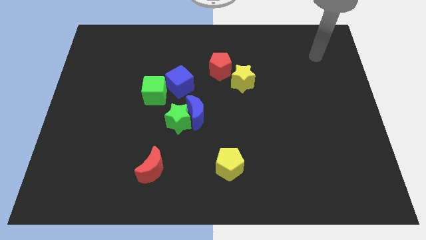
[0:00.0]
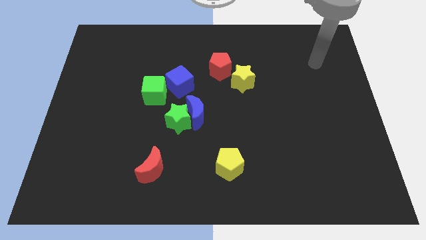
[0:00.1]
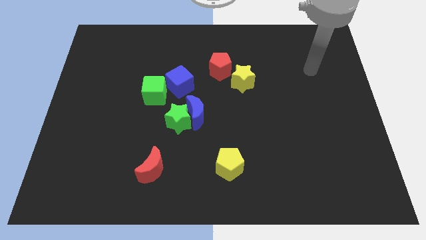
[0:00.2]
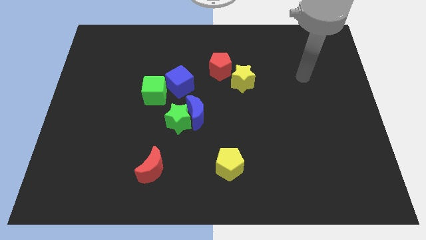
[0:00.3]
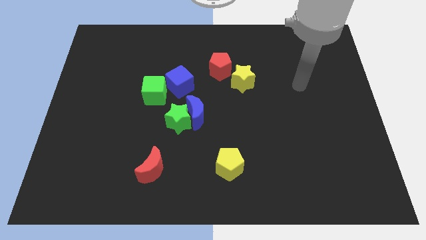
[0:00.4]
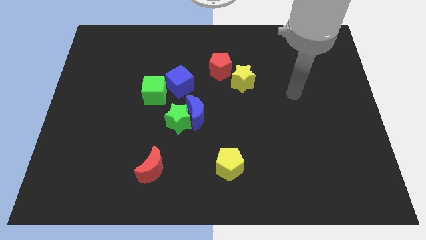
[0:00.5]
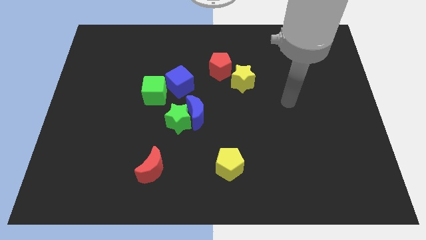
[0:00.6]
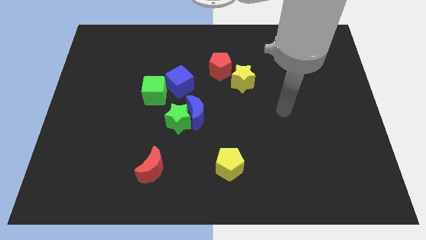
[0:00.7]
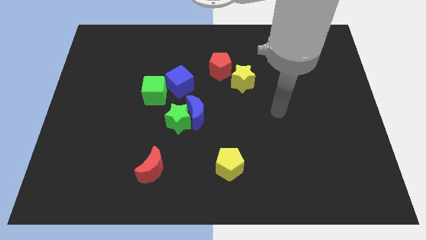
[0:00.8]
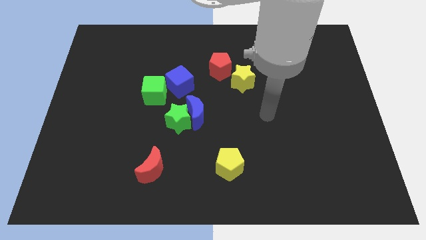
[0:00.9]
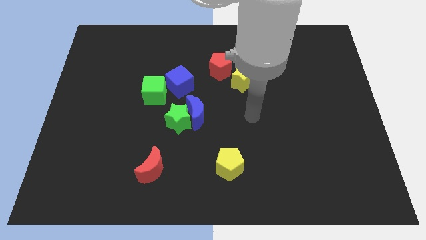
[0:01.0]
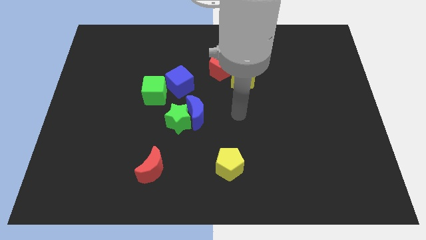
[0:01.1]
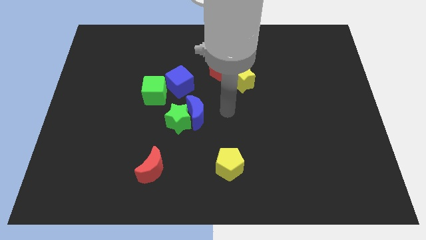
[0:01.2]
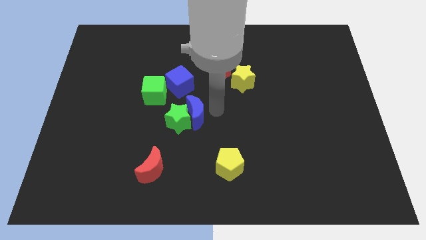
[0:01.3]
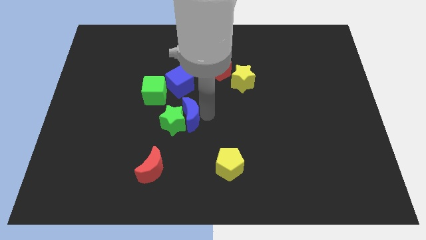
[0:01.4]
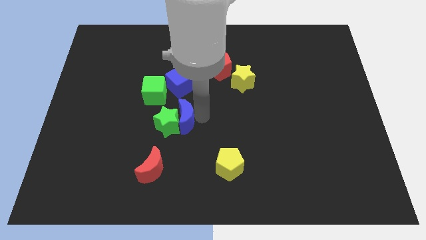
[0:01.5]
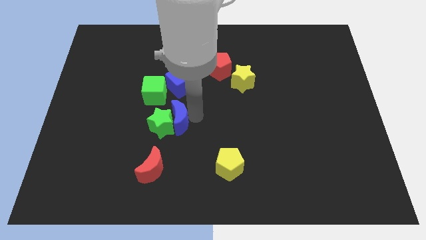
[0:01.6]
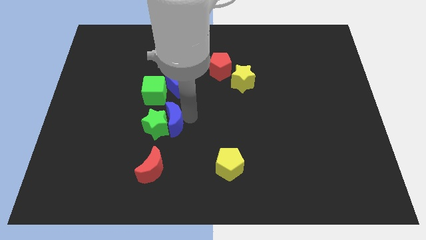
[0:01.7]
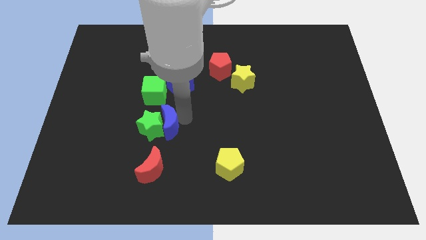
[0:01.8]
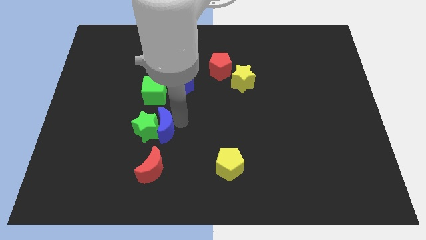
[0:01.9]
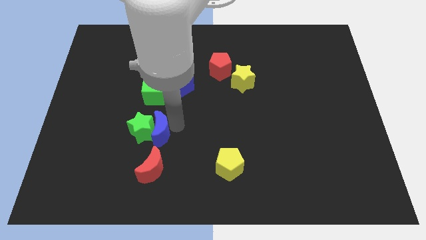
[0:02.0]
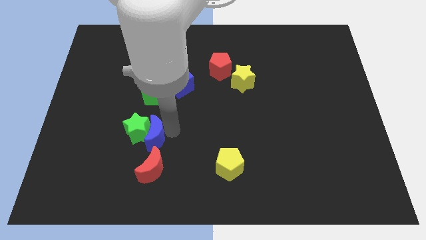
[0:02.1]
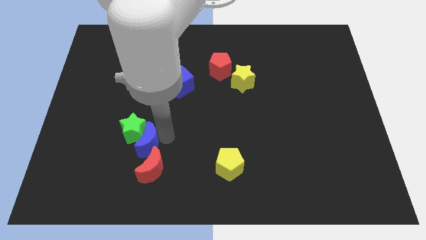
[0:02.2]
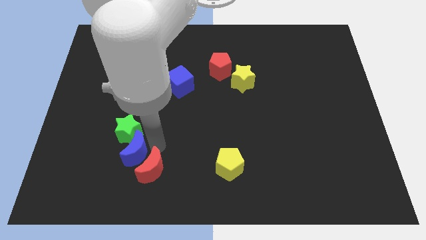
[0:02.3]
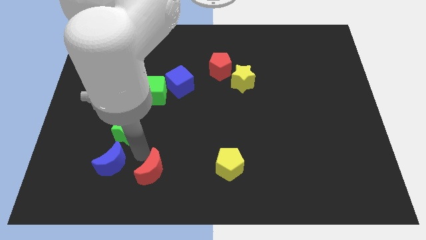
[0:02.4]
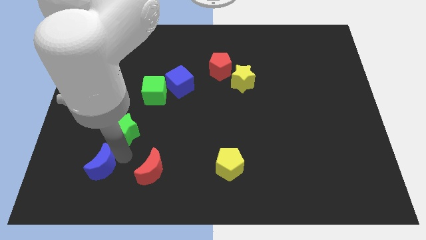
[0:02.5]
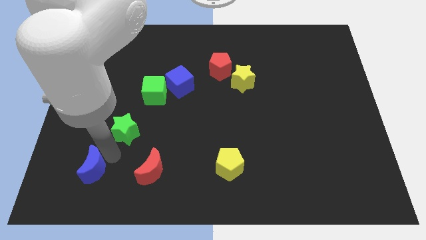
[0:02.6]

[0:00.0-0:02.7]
pull the green star apart from the blue moon

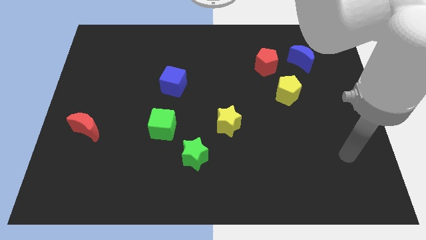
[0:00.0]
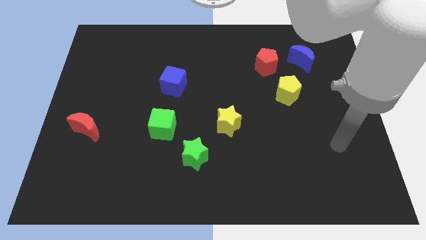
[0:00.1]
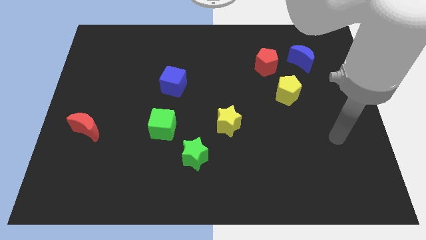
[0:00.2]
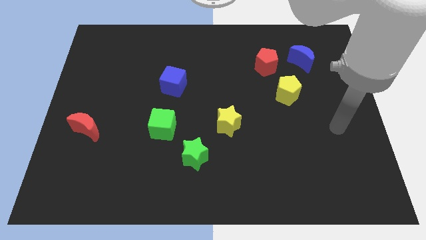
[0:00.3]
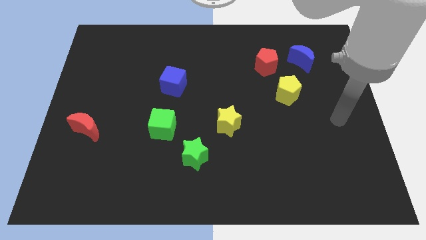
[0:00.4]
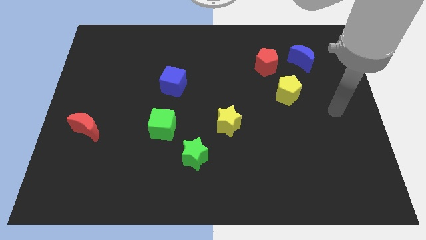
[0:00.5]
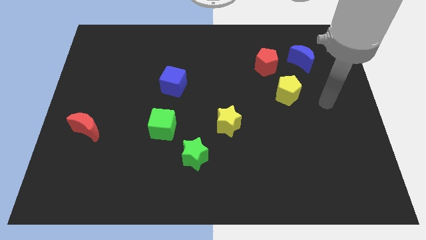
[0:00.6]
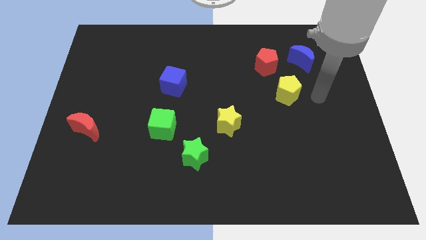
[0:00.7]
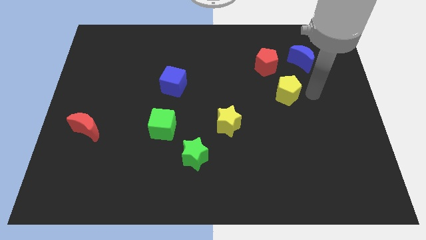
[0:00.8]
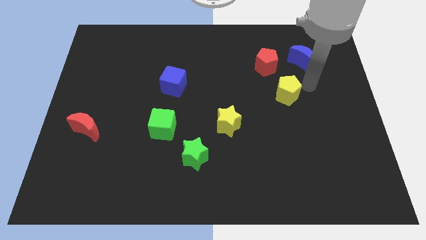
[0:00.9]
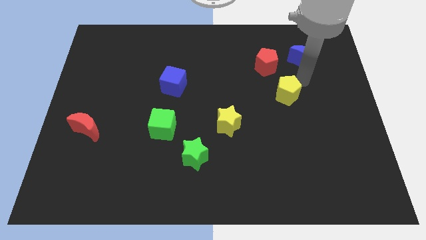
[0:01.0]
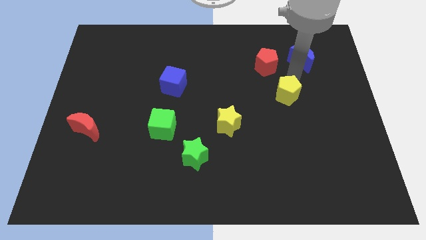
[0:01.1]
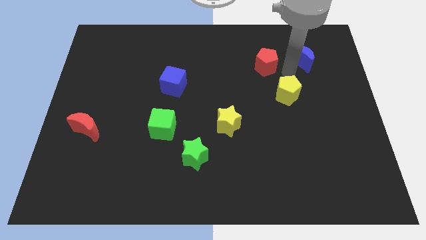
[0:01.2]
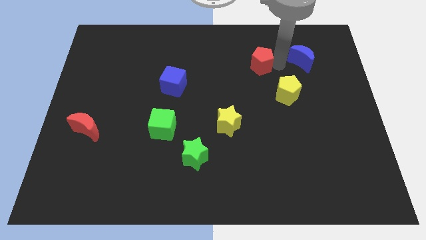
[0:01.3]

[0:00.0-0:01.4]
separate the blue moon from the red pentagon

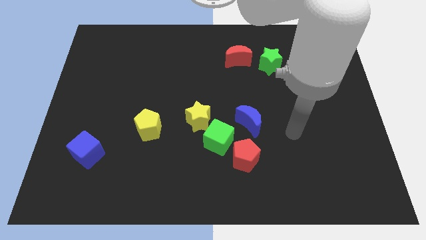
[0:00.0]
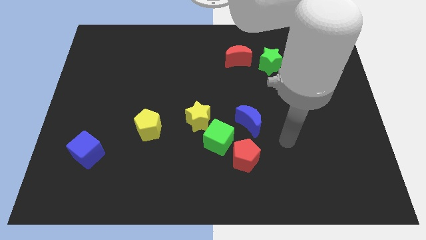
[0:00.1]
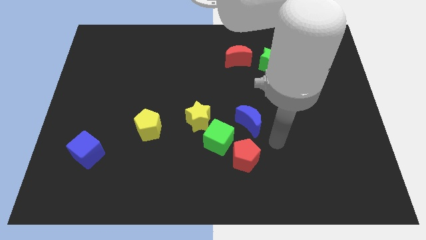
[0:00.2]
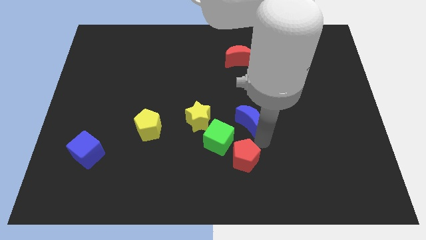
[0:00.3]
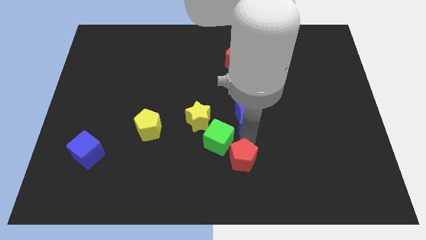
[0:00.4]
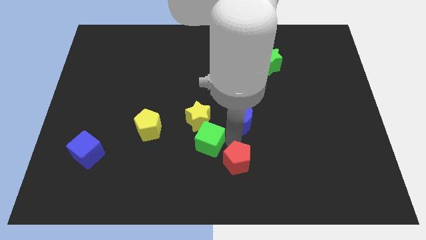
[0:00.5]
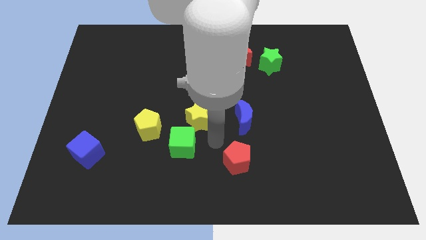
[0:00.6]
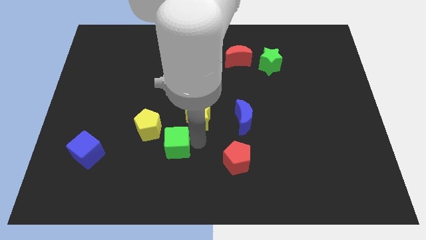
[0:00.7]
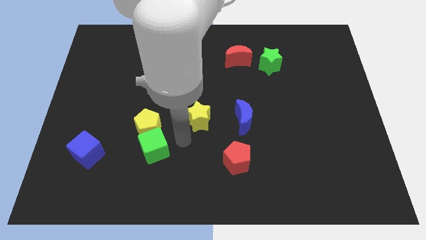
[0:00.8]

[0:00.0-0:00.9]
pull the yellow star apart from the green cube

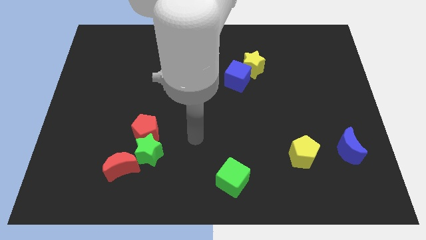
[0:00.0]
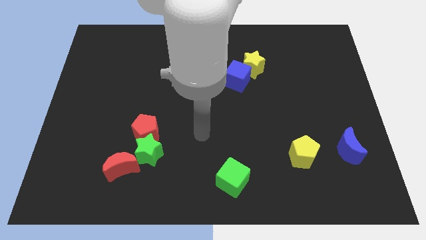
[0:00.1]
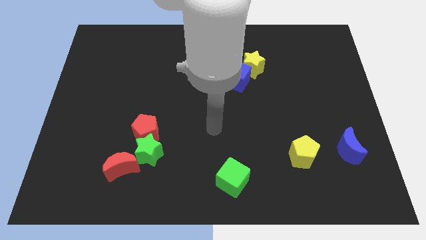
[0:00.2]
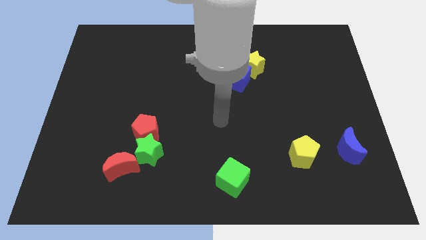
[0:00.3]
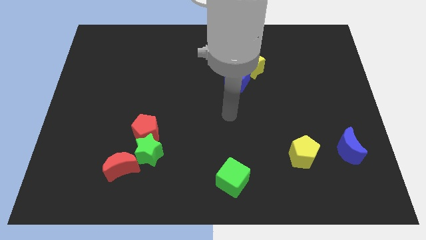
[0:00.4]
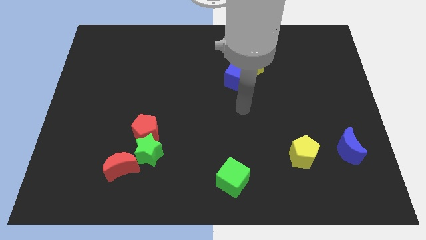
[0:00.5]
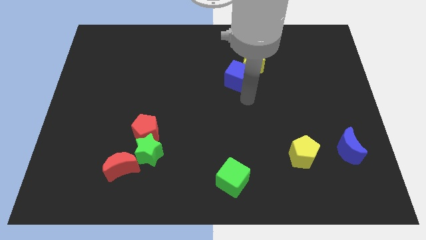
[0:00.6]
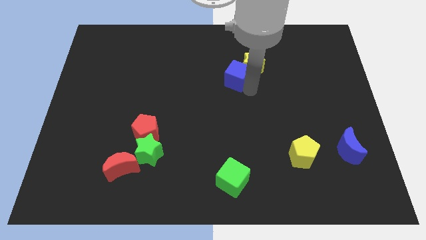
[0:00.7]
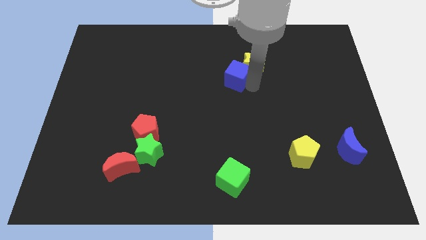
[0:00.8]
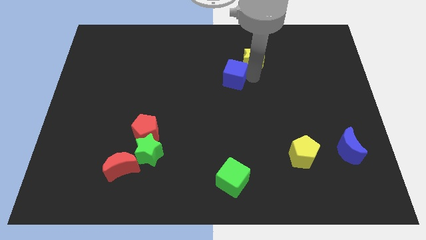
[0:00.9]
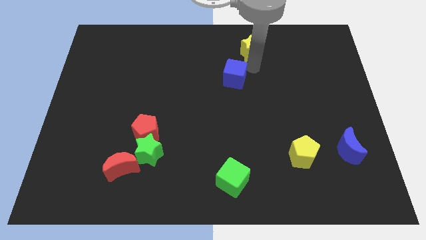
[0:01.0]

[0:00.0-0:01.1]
move the blue cube away from the yellow star

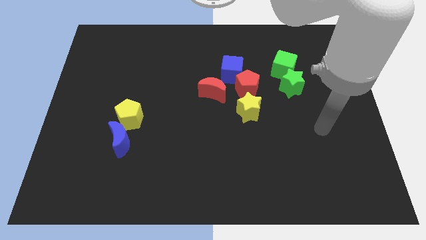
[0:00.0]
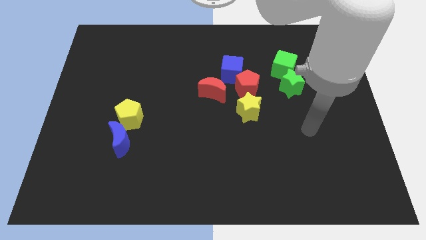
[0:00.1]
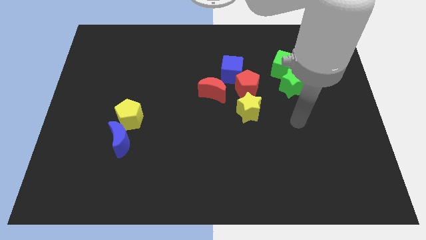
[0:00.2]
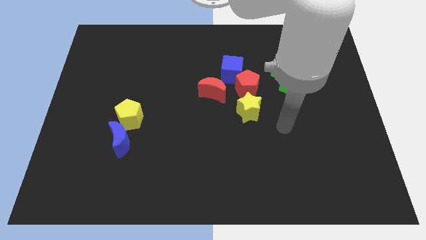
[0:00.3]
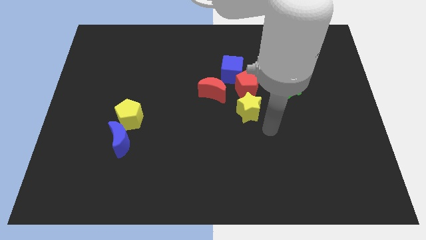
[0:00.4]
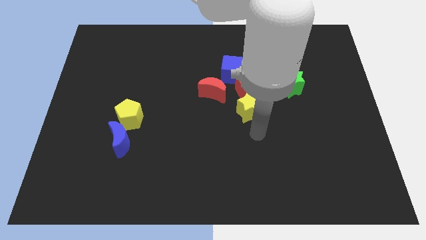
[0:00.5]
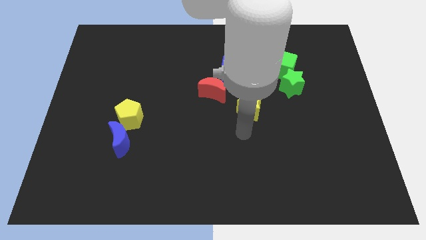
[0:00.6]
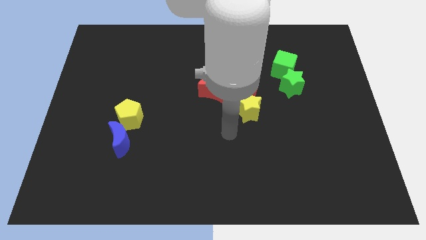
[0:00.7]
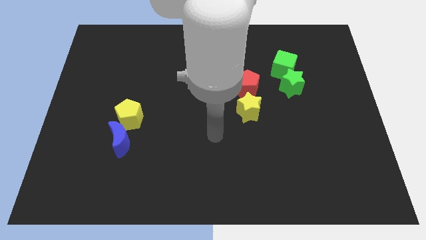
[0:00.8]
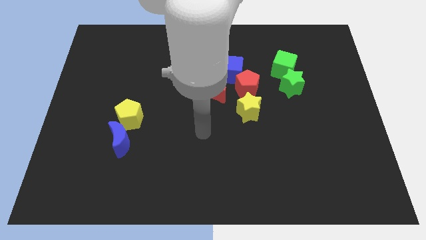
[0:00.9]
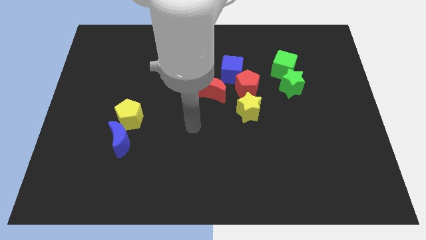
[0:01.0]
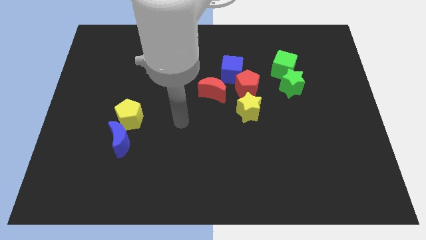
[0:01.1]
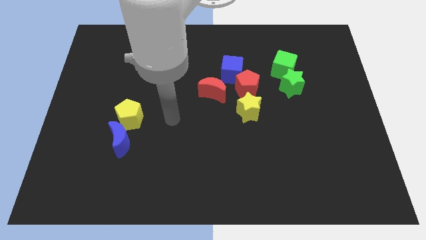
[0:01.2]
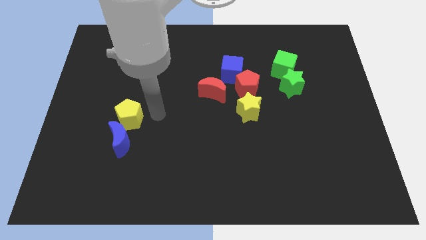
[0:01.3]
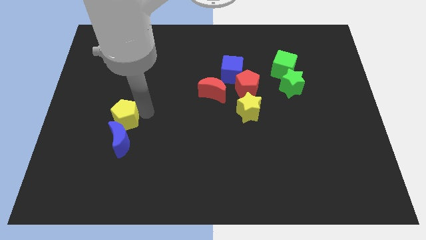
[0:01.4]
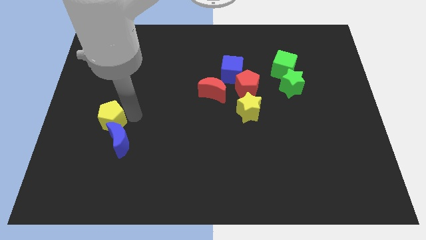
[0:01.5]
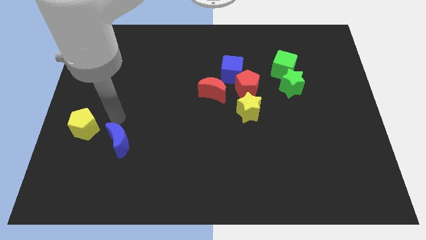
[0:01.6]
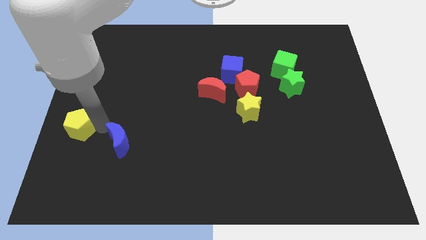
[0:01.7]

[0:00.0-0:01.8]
pull the blue moon apart from the yellow pentagon

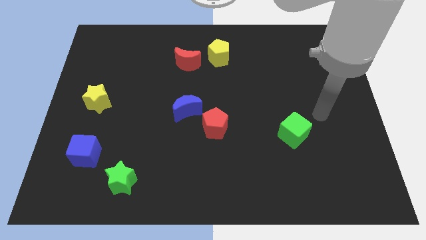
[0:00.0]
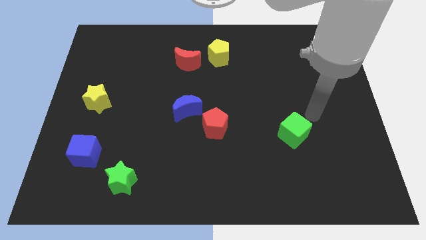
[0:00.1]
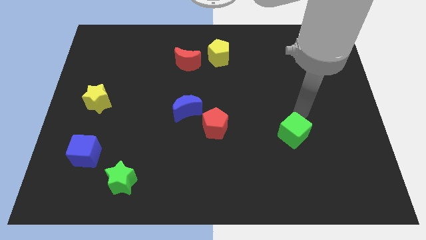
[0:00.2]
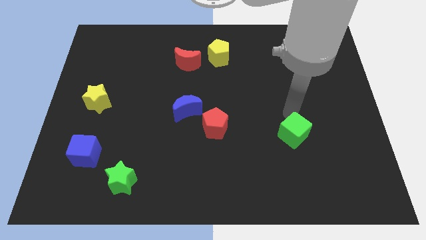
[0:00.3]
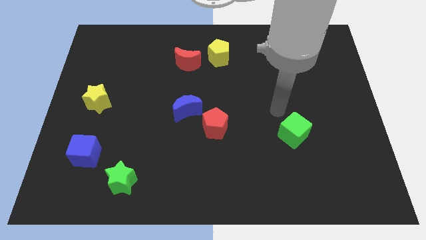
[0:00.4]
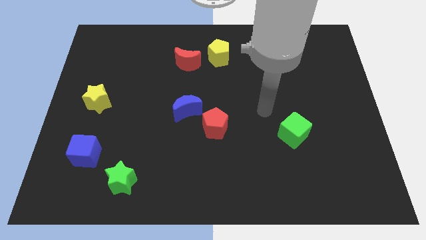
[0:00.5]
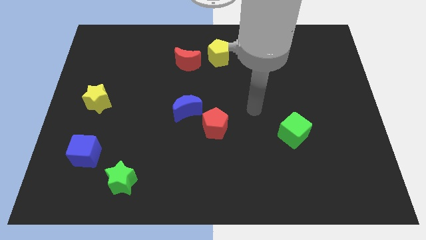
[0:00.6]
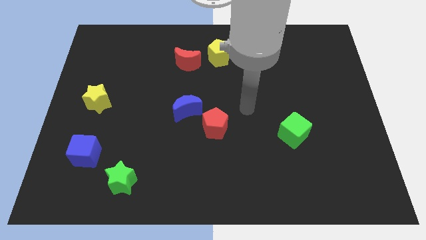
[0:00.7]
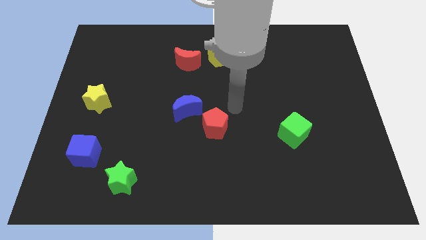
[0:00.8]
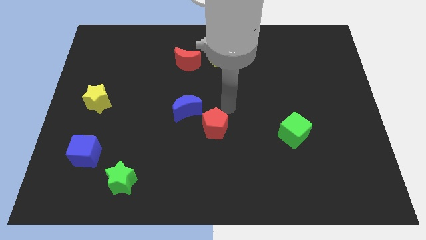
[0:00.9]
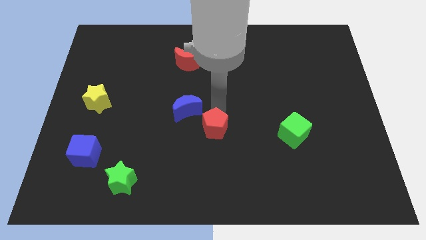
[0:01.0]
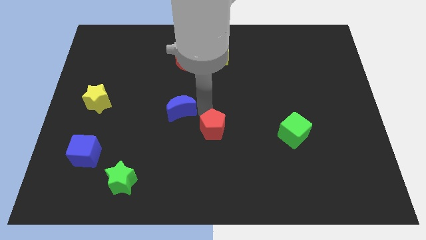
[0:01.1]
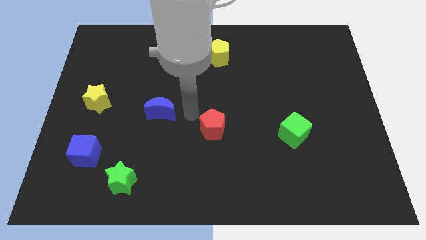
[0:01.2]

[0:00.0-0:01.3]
move the red pentagon away from the blue moon

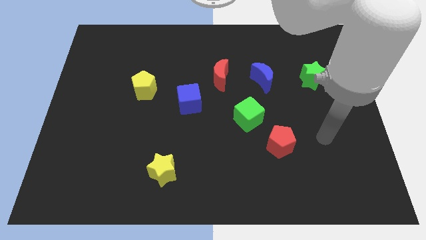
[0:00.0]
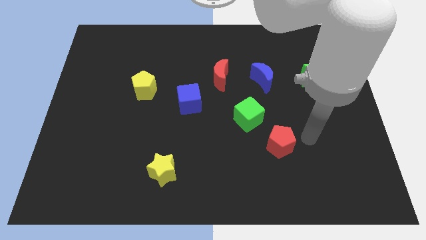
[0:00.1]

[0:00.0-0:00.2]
move the red pentagon away from the green cube
